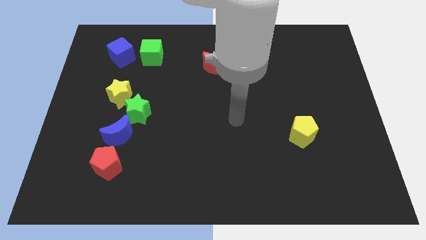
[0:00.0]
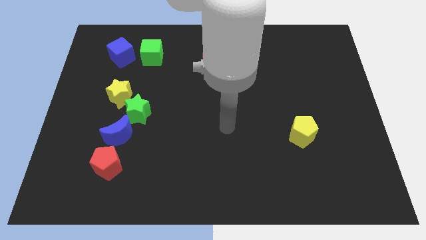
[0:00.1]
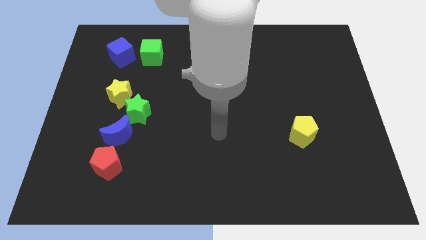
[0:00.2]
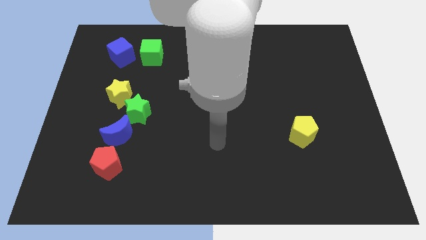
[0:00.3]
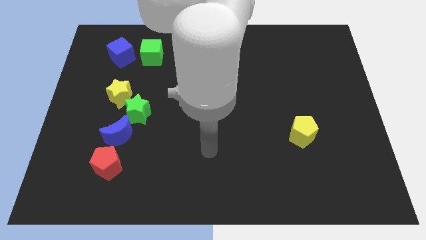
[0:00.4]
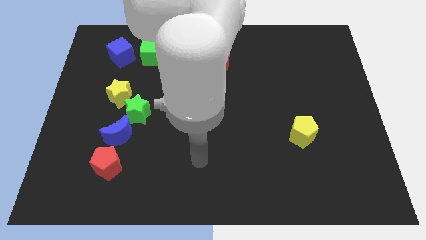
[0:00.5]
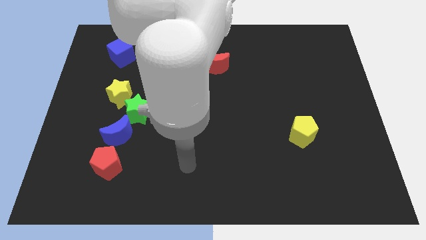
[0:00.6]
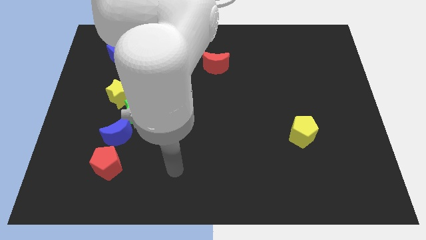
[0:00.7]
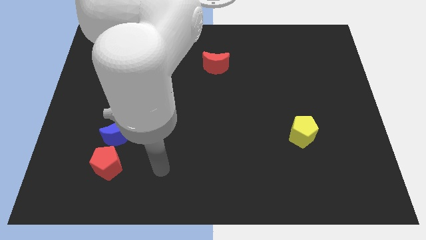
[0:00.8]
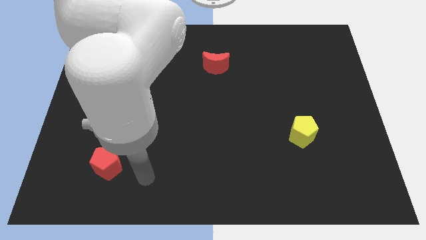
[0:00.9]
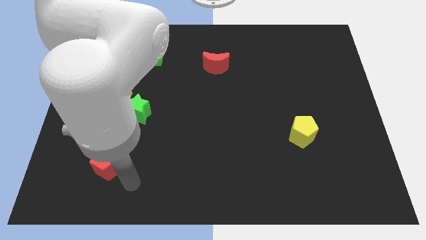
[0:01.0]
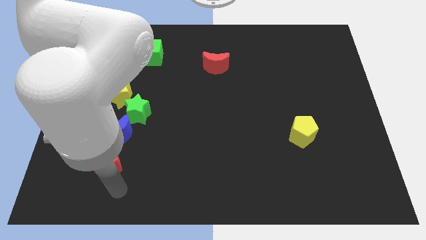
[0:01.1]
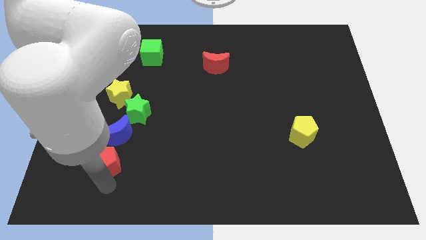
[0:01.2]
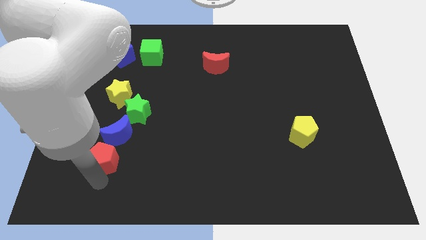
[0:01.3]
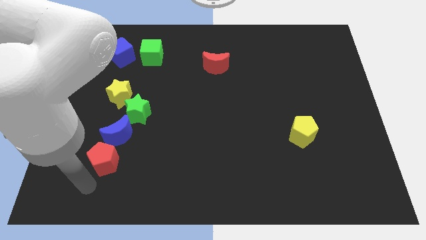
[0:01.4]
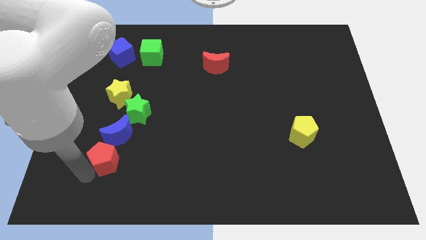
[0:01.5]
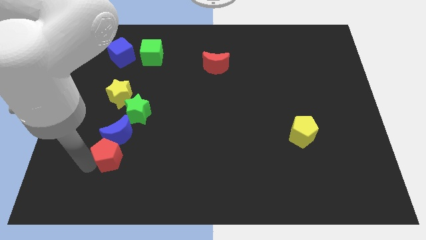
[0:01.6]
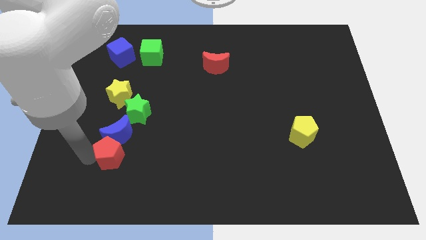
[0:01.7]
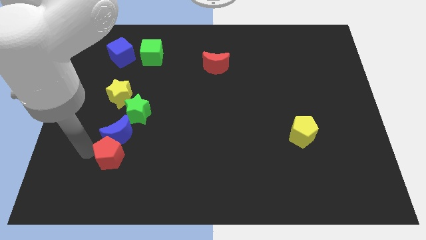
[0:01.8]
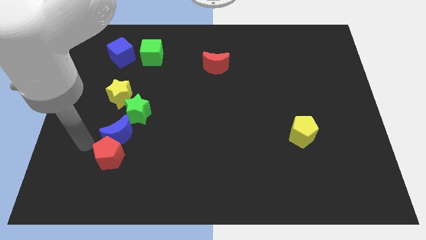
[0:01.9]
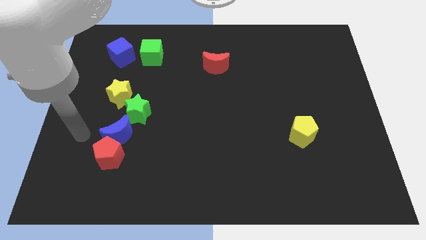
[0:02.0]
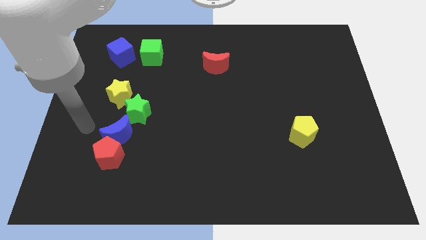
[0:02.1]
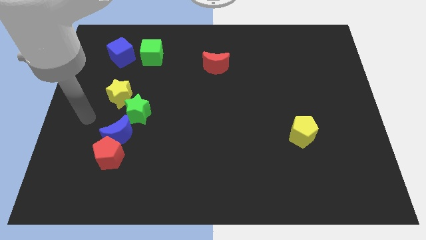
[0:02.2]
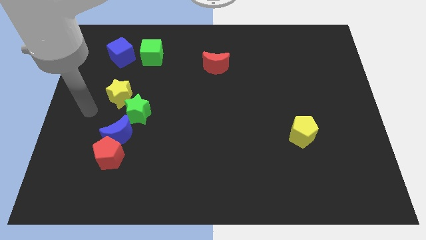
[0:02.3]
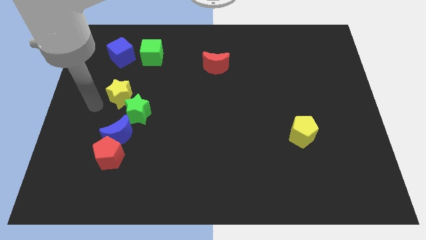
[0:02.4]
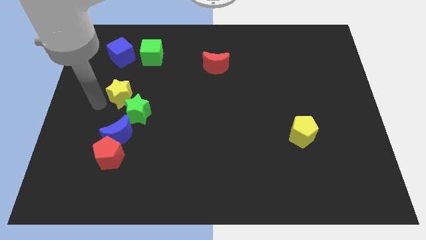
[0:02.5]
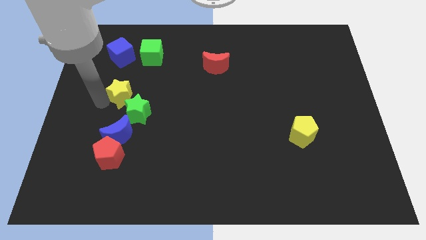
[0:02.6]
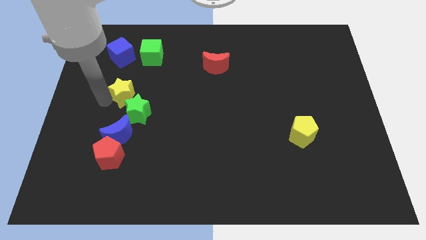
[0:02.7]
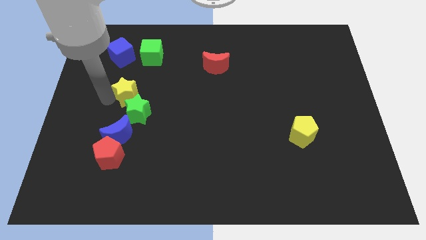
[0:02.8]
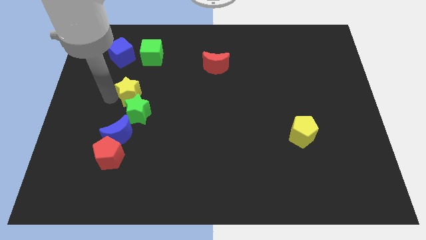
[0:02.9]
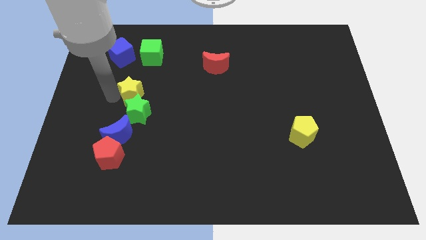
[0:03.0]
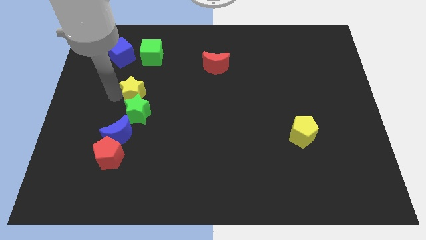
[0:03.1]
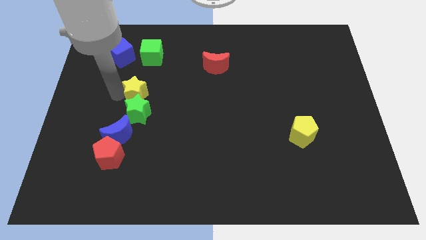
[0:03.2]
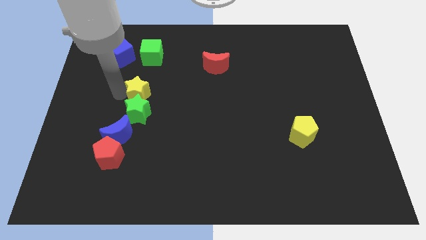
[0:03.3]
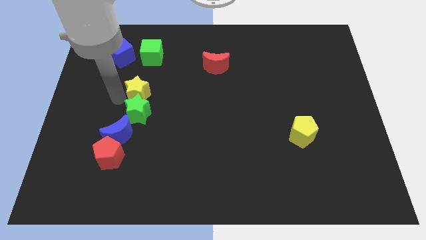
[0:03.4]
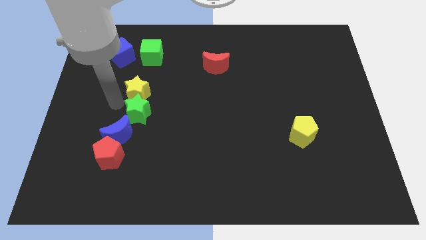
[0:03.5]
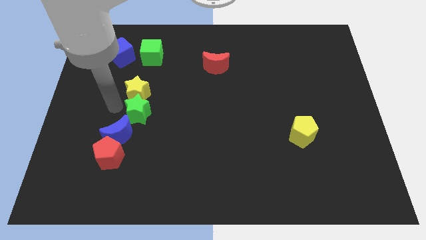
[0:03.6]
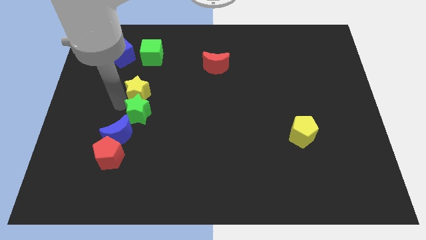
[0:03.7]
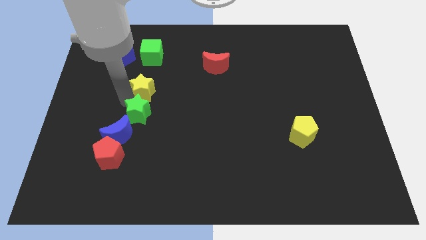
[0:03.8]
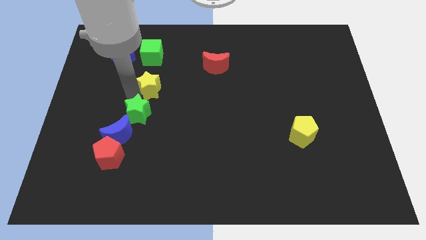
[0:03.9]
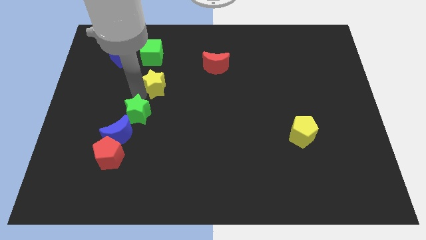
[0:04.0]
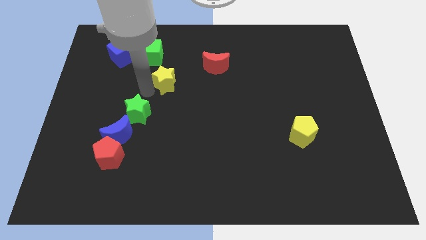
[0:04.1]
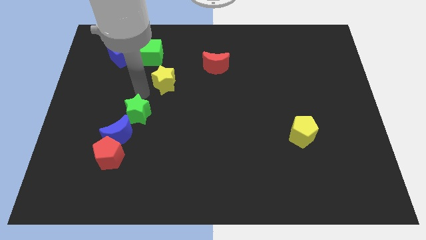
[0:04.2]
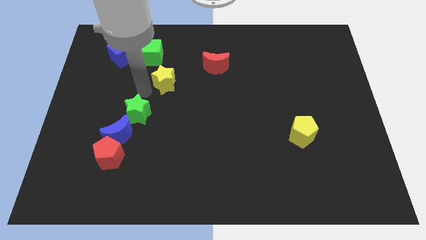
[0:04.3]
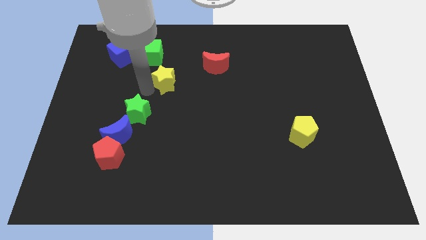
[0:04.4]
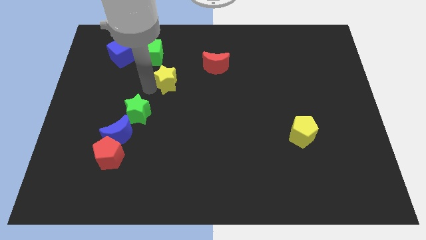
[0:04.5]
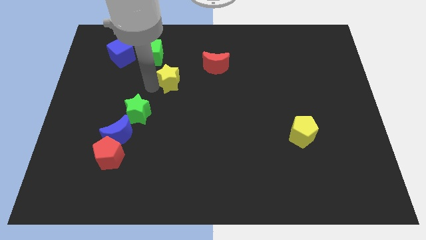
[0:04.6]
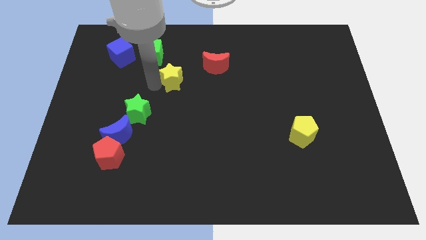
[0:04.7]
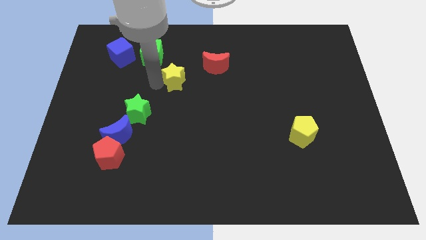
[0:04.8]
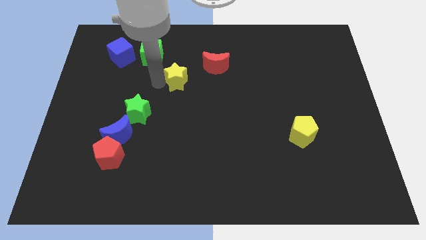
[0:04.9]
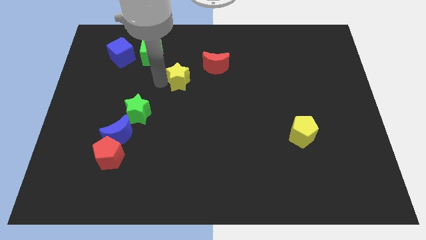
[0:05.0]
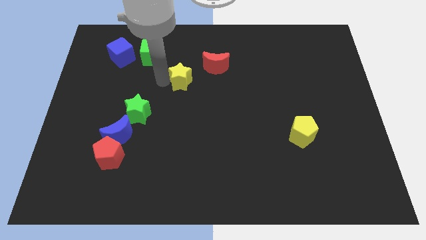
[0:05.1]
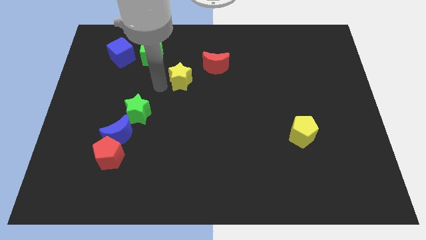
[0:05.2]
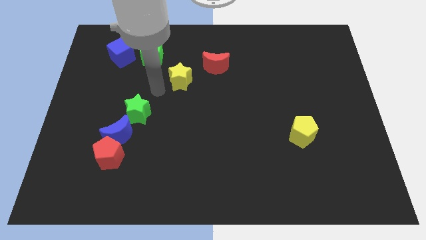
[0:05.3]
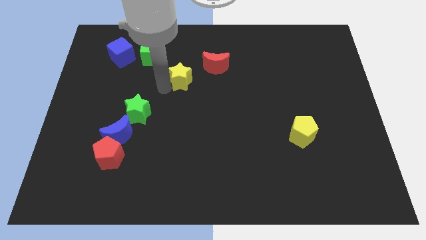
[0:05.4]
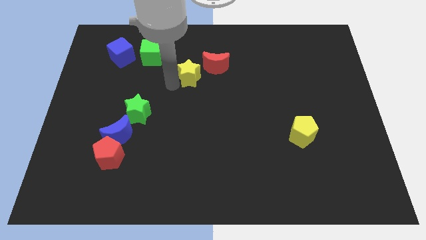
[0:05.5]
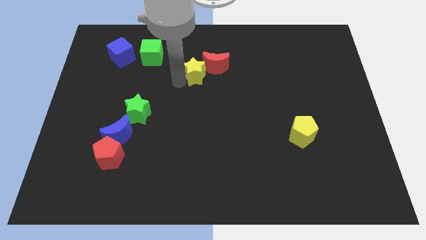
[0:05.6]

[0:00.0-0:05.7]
push the yellow star close to the red moon

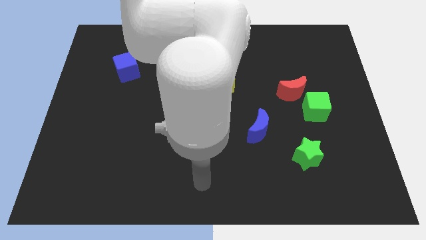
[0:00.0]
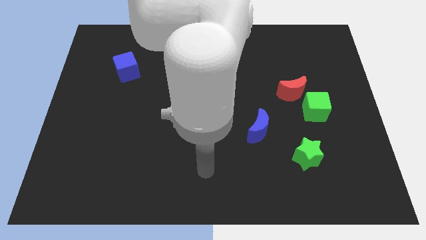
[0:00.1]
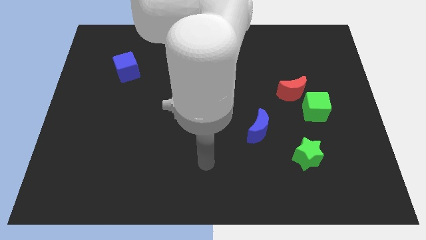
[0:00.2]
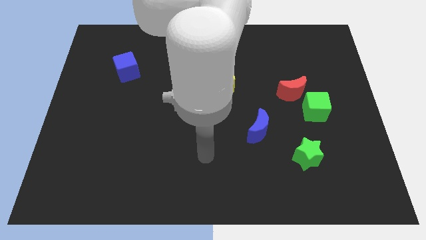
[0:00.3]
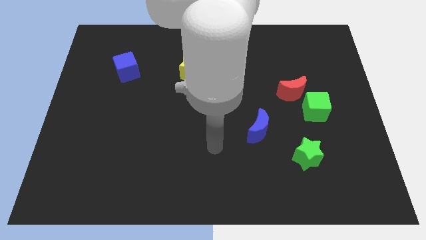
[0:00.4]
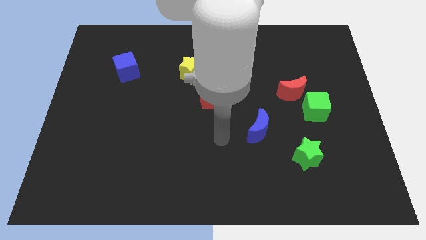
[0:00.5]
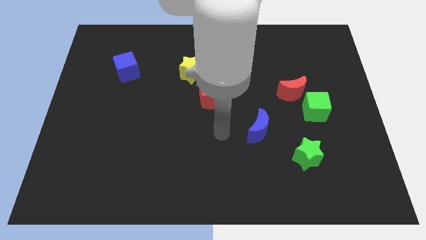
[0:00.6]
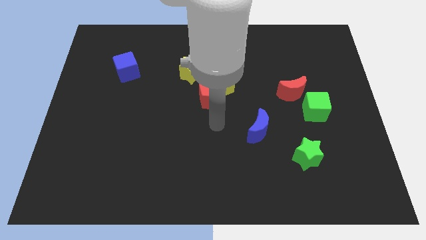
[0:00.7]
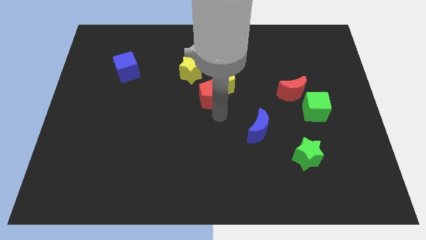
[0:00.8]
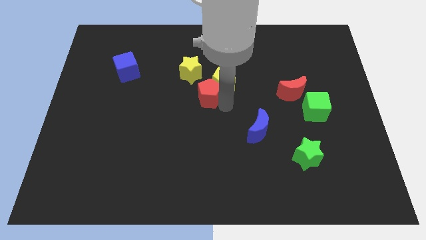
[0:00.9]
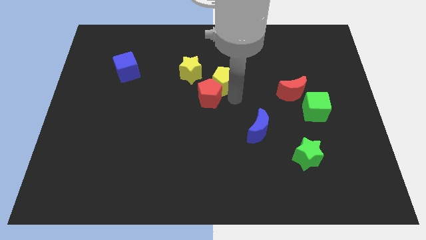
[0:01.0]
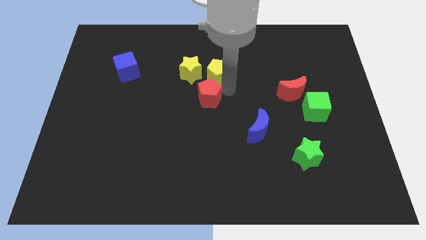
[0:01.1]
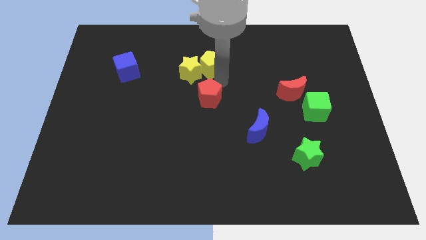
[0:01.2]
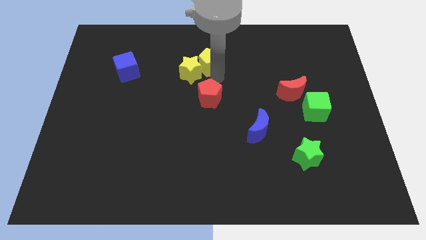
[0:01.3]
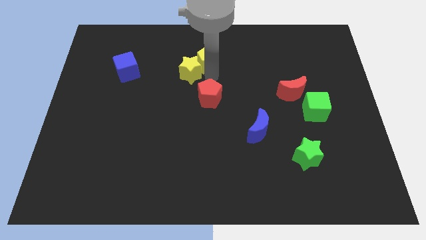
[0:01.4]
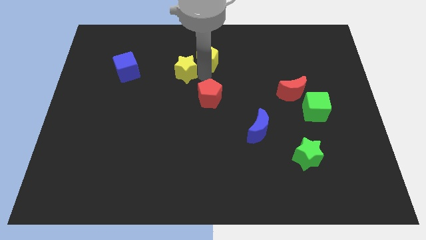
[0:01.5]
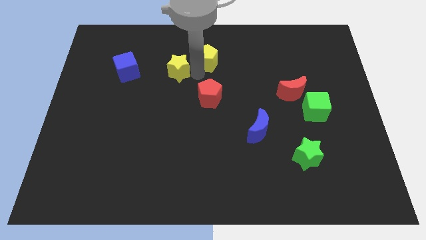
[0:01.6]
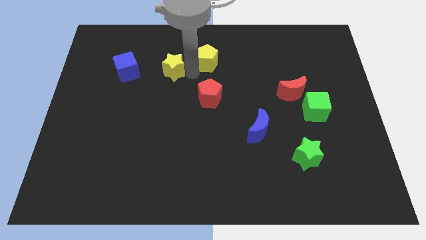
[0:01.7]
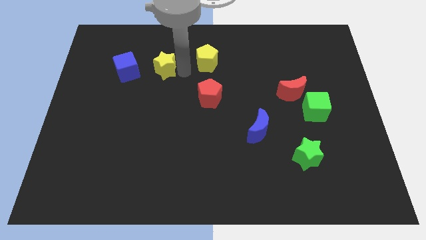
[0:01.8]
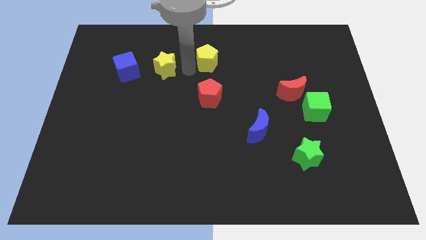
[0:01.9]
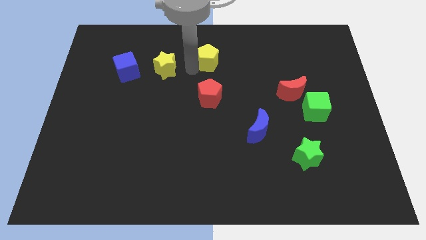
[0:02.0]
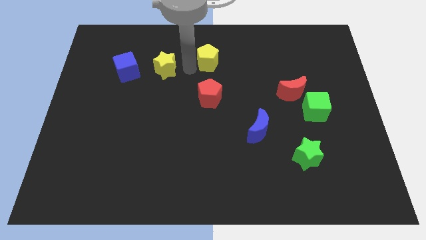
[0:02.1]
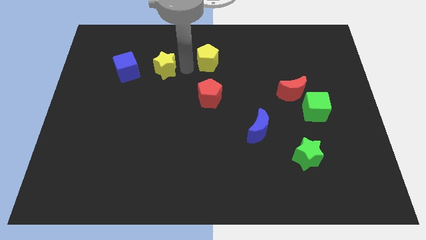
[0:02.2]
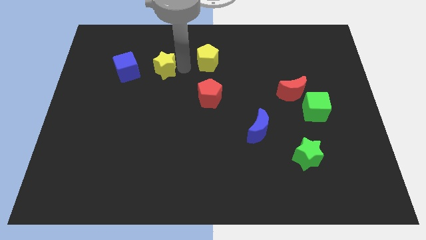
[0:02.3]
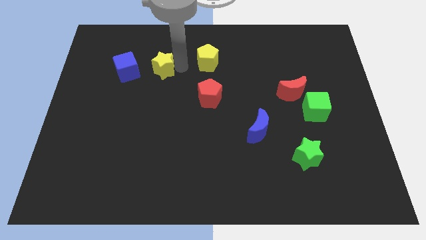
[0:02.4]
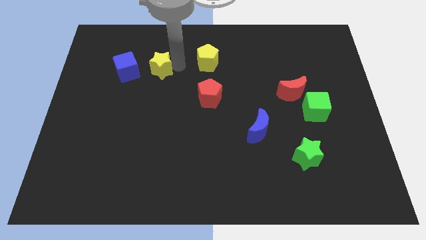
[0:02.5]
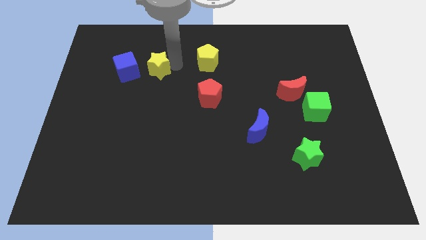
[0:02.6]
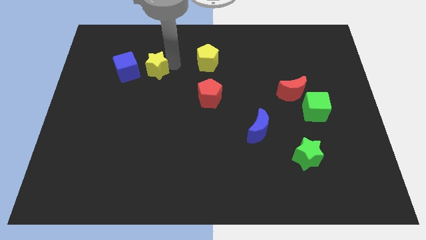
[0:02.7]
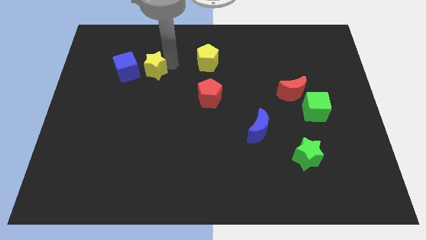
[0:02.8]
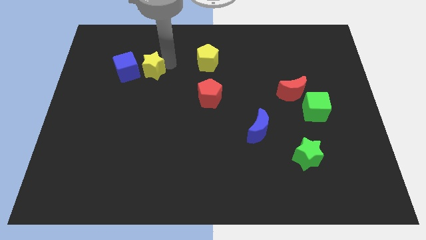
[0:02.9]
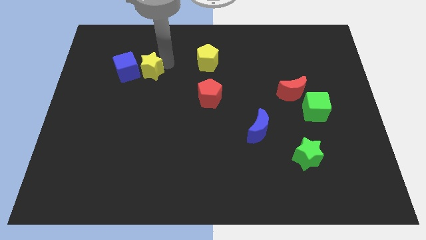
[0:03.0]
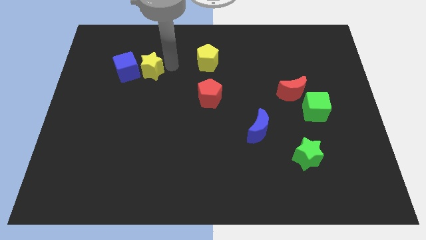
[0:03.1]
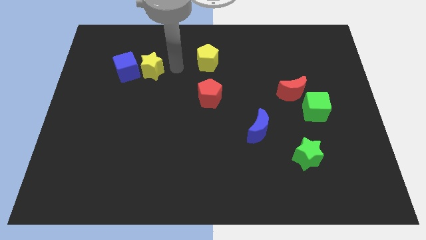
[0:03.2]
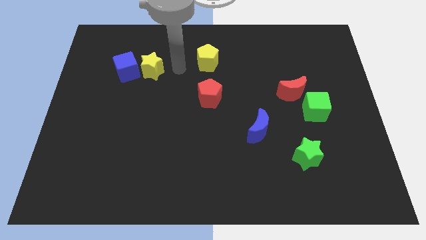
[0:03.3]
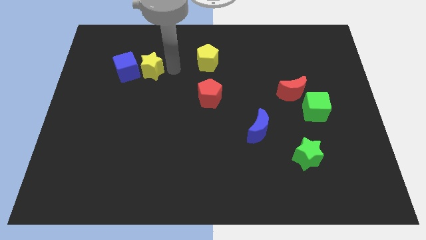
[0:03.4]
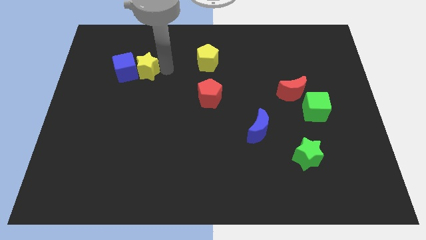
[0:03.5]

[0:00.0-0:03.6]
slide the yellow star to the blue cube
